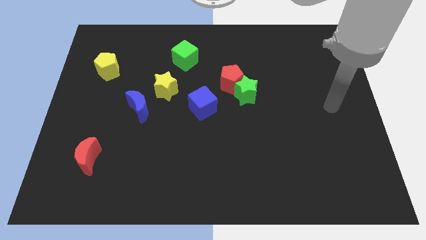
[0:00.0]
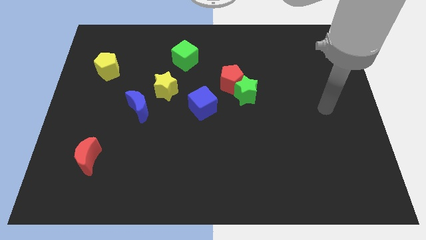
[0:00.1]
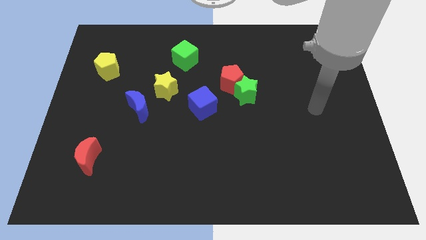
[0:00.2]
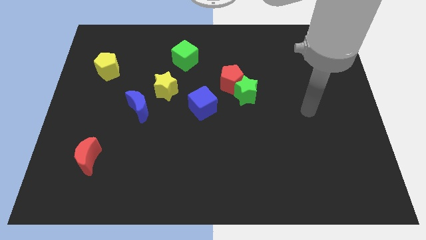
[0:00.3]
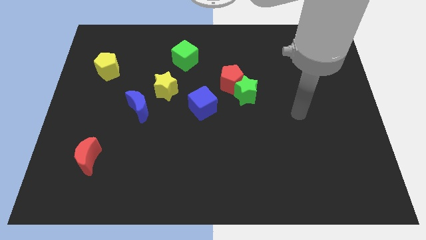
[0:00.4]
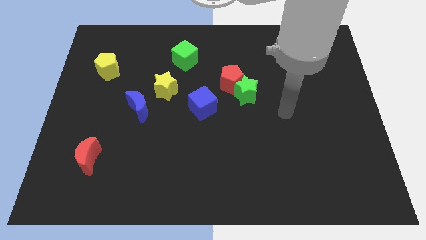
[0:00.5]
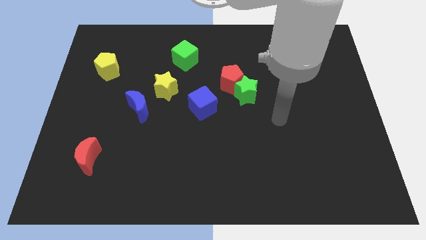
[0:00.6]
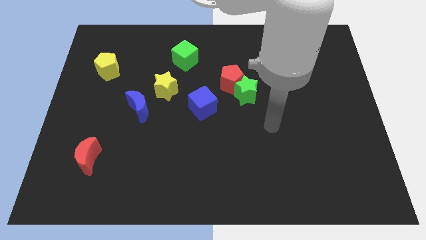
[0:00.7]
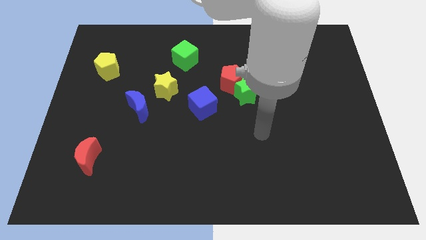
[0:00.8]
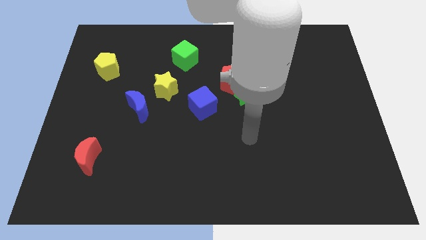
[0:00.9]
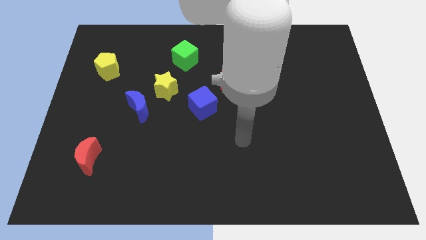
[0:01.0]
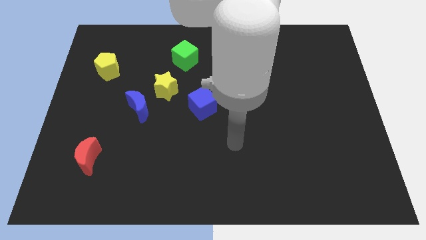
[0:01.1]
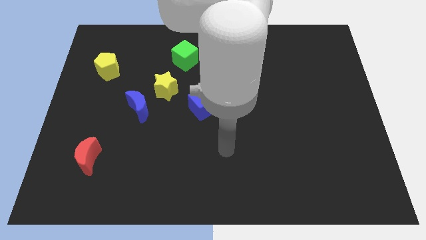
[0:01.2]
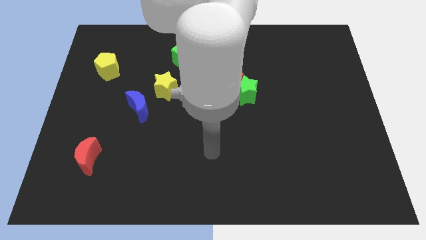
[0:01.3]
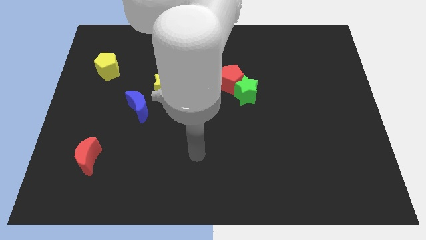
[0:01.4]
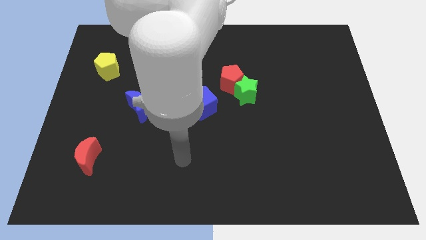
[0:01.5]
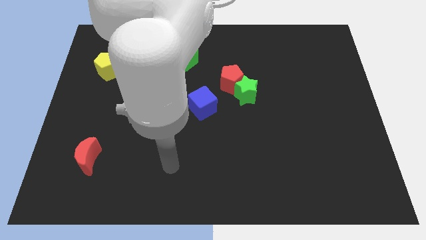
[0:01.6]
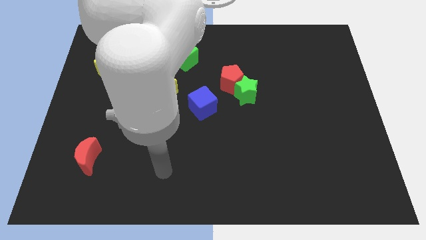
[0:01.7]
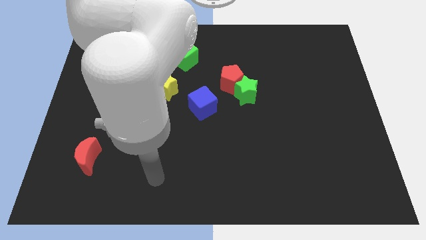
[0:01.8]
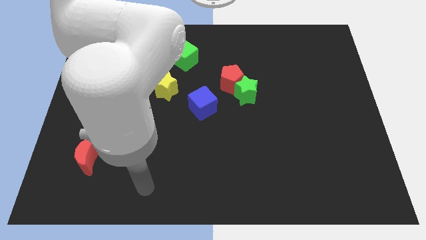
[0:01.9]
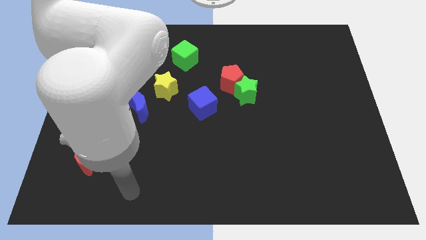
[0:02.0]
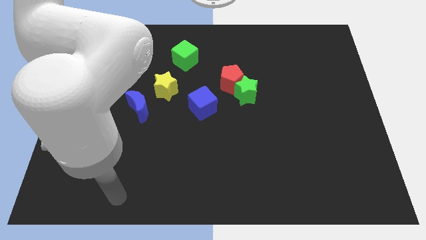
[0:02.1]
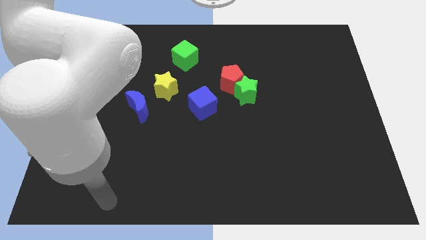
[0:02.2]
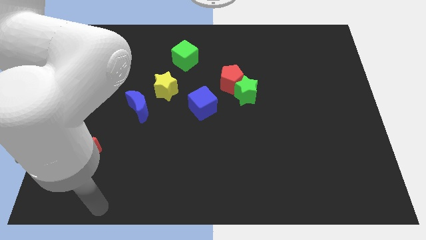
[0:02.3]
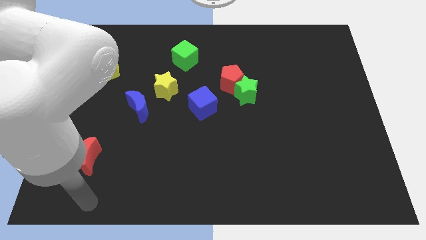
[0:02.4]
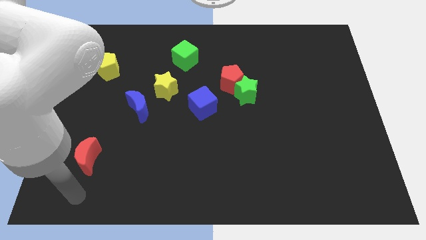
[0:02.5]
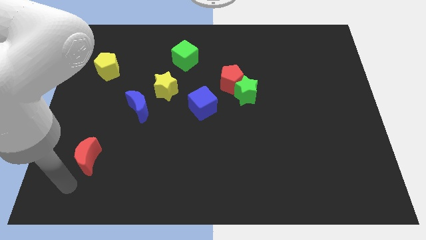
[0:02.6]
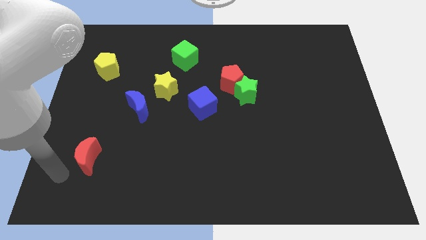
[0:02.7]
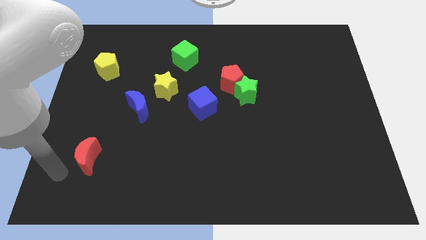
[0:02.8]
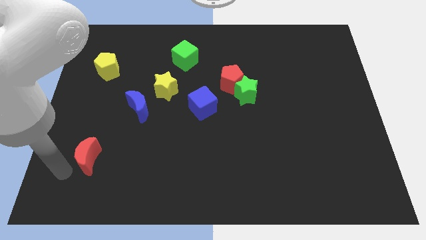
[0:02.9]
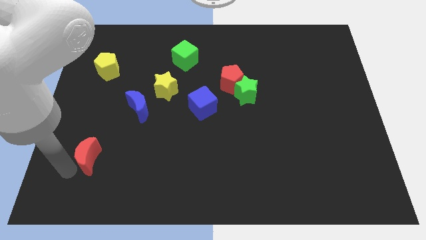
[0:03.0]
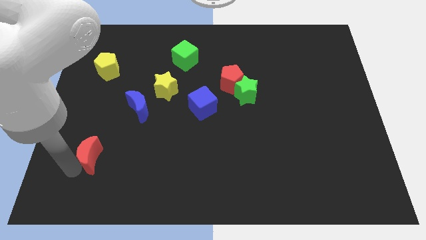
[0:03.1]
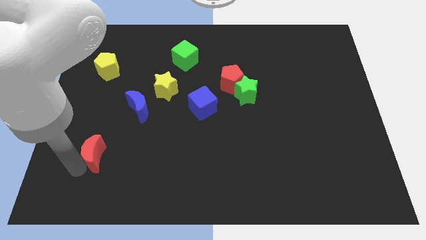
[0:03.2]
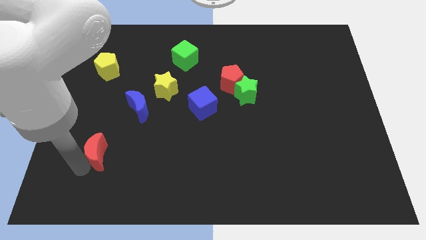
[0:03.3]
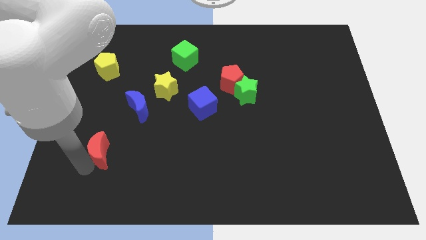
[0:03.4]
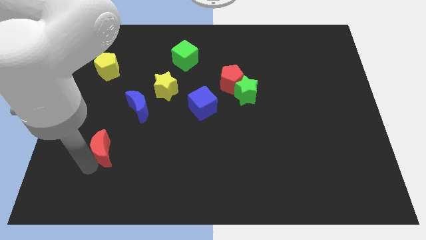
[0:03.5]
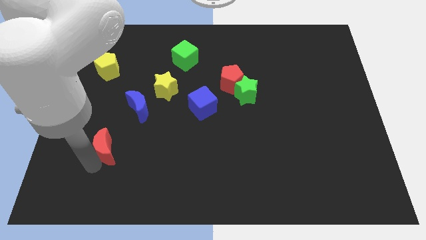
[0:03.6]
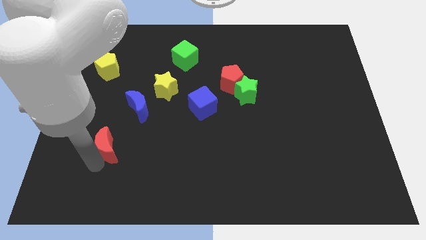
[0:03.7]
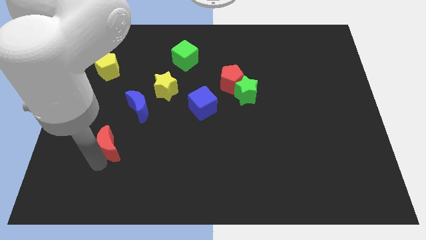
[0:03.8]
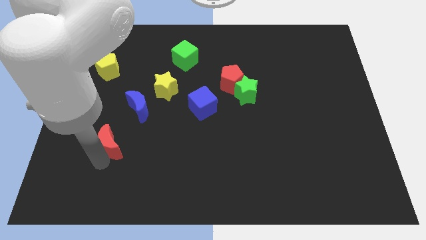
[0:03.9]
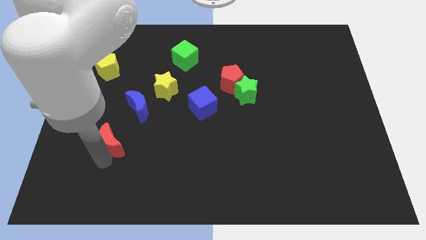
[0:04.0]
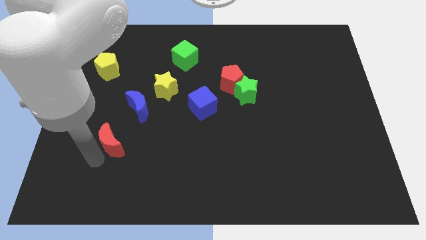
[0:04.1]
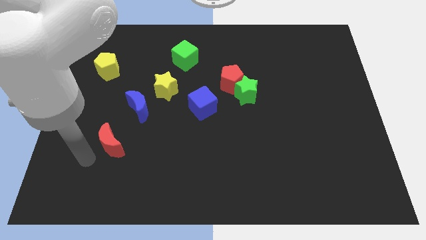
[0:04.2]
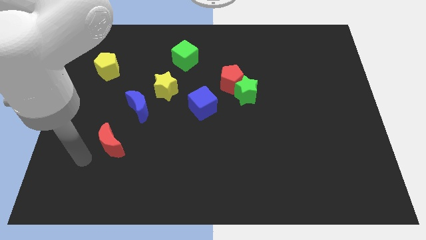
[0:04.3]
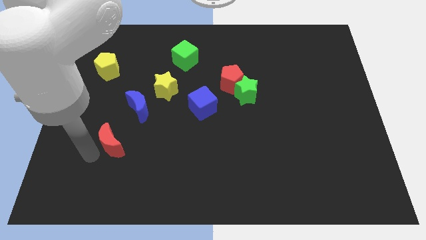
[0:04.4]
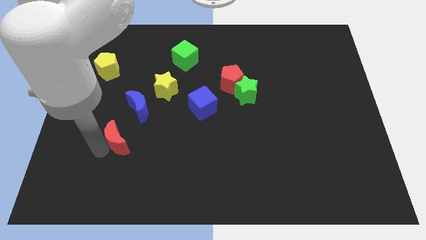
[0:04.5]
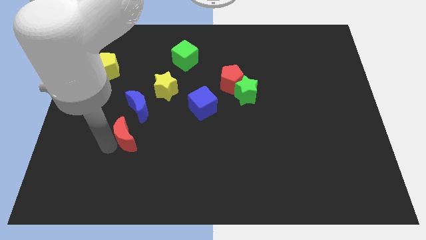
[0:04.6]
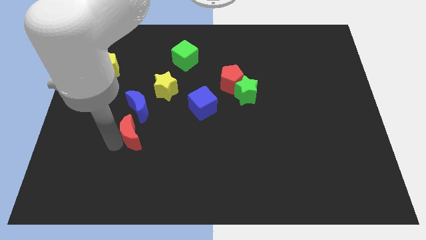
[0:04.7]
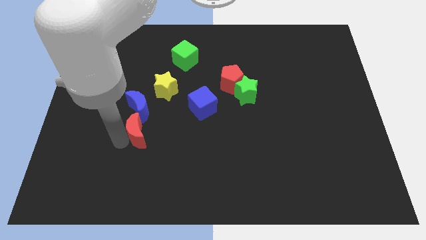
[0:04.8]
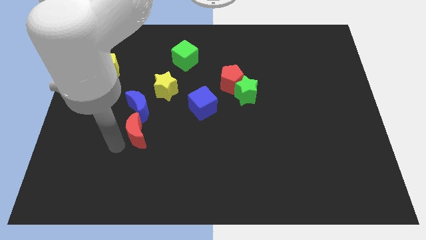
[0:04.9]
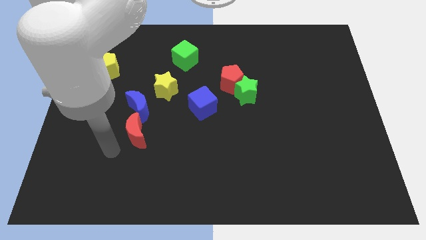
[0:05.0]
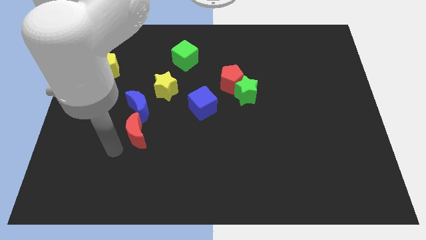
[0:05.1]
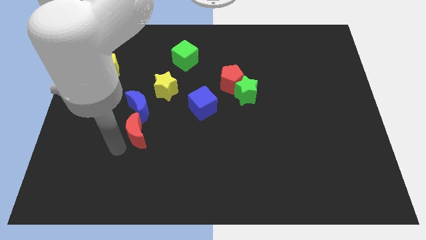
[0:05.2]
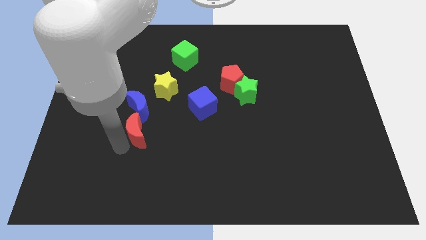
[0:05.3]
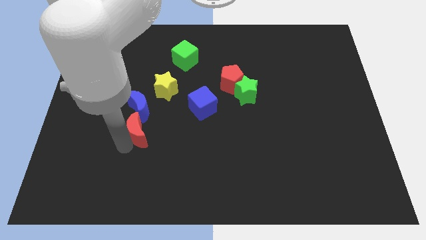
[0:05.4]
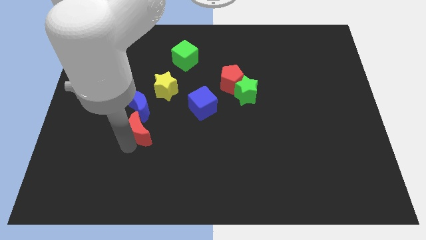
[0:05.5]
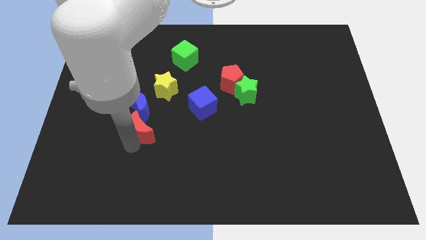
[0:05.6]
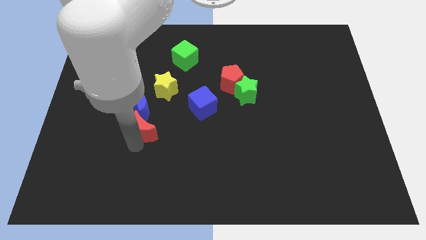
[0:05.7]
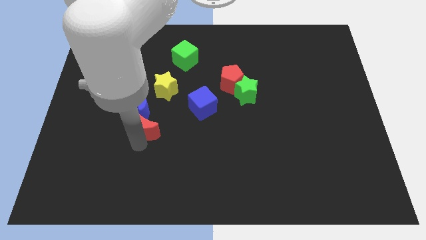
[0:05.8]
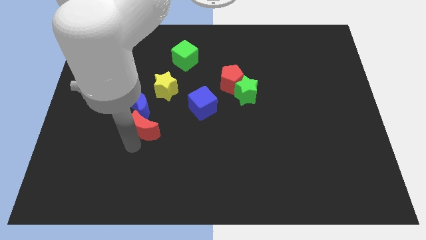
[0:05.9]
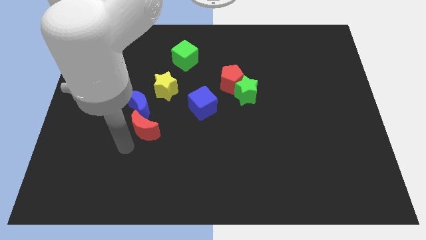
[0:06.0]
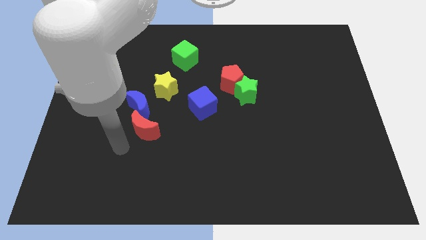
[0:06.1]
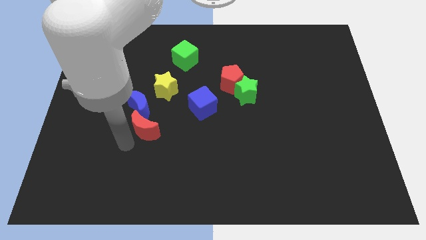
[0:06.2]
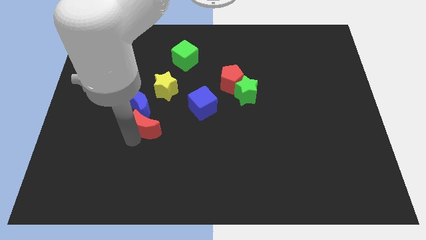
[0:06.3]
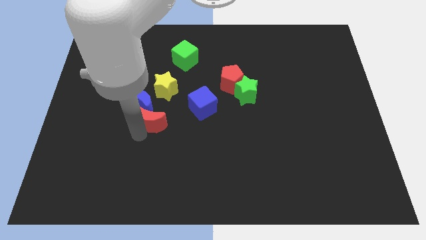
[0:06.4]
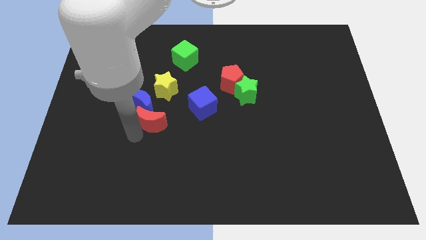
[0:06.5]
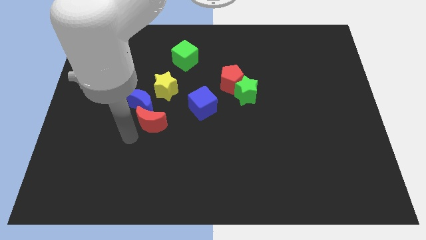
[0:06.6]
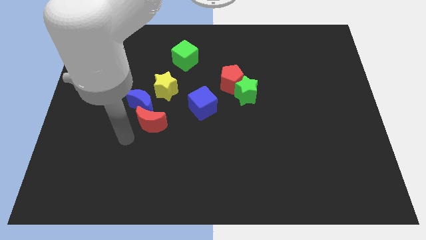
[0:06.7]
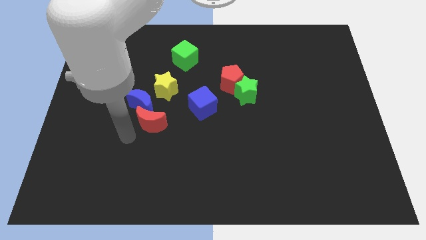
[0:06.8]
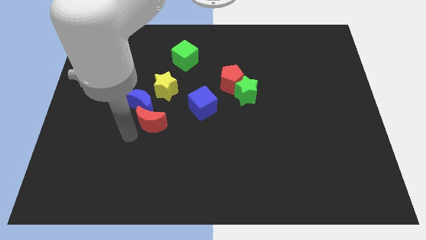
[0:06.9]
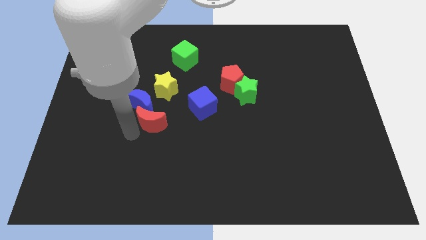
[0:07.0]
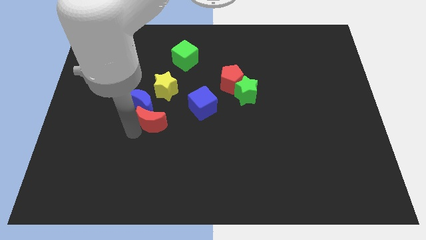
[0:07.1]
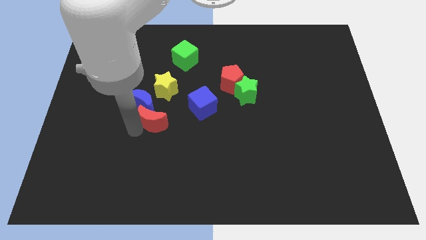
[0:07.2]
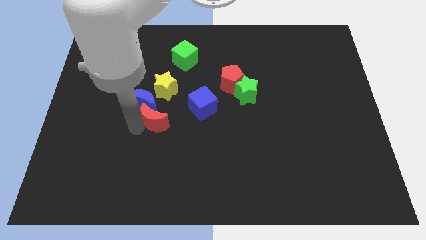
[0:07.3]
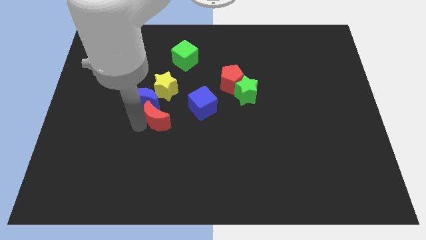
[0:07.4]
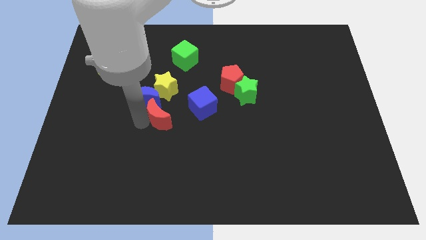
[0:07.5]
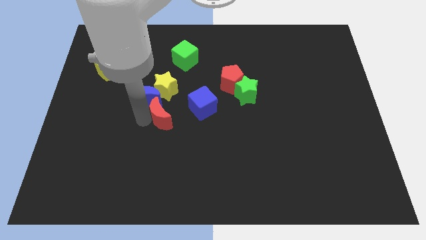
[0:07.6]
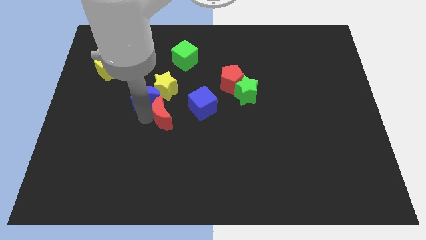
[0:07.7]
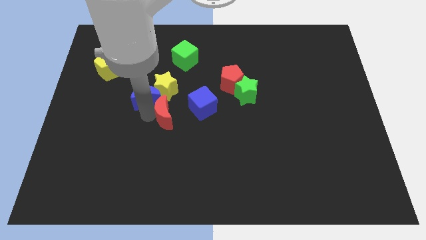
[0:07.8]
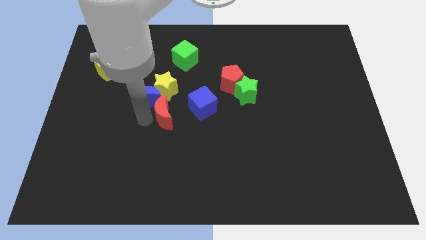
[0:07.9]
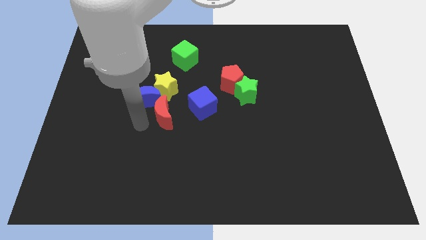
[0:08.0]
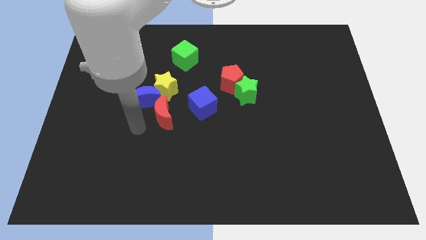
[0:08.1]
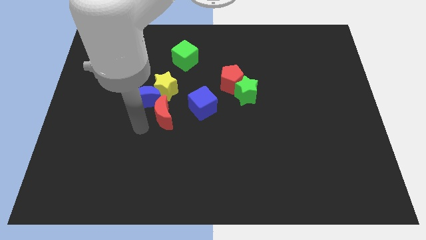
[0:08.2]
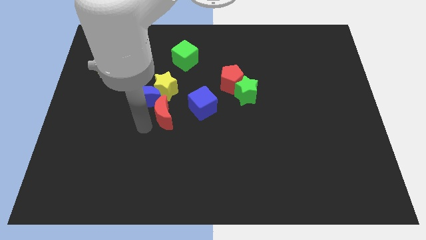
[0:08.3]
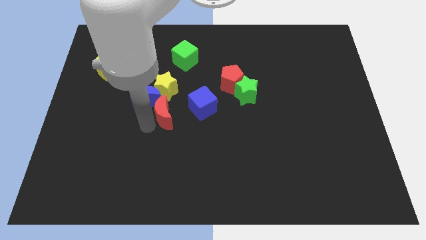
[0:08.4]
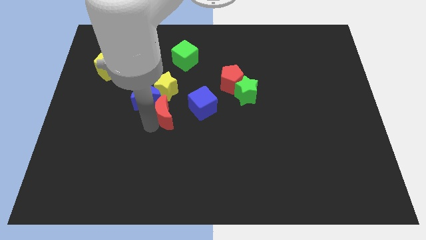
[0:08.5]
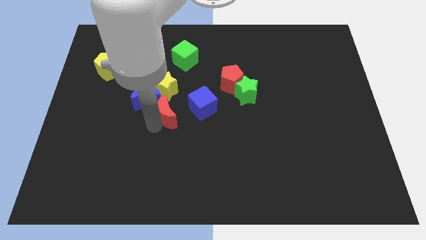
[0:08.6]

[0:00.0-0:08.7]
move the red moon diagonally down and to the right of the yellow star
